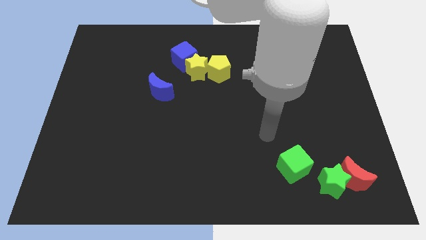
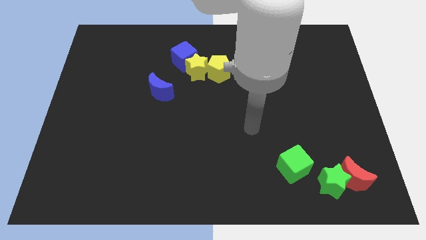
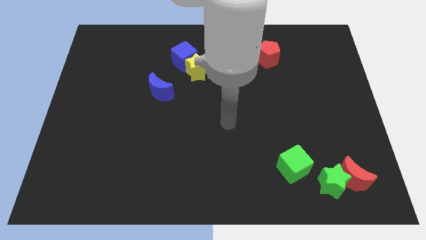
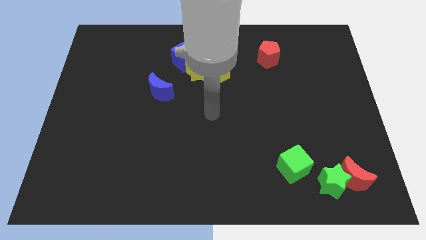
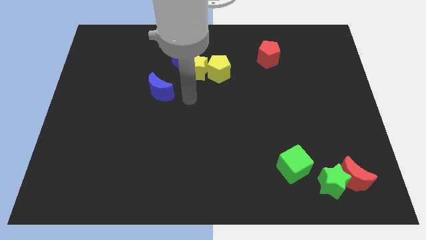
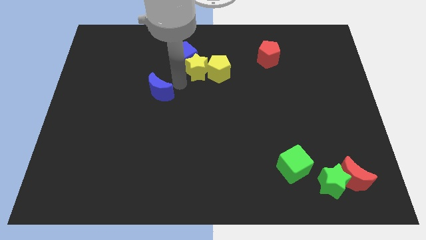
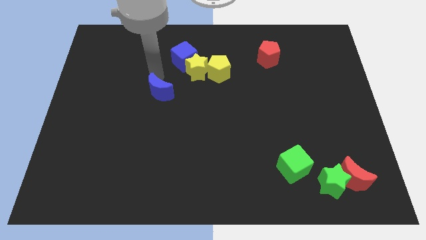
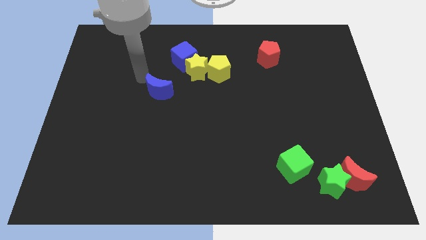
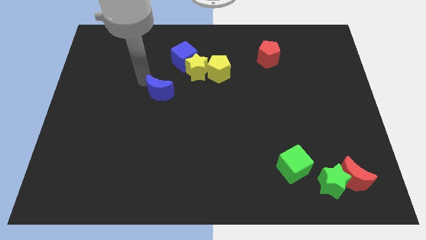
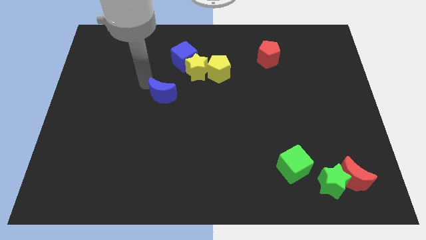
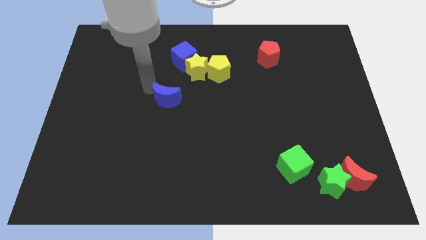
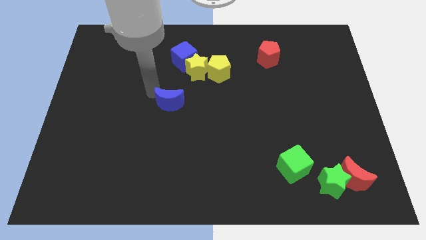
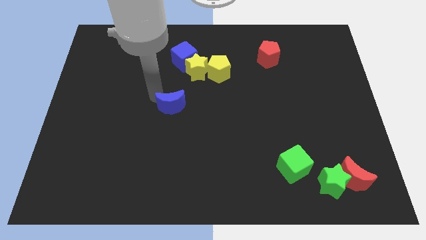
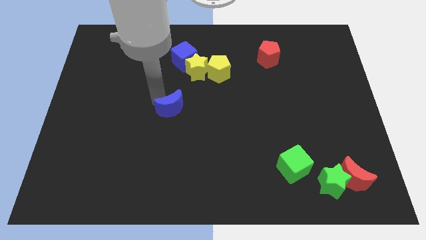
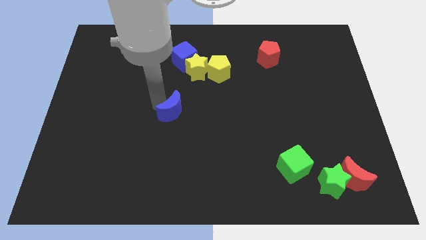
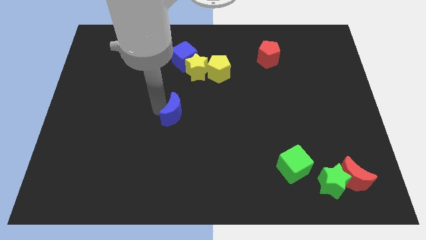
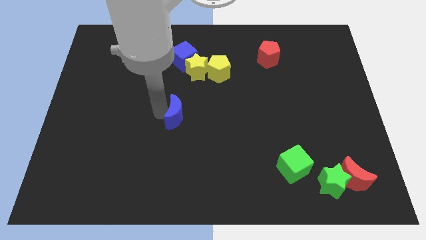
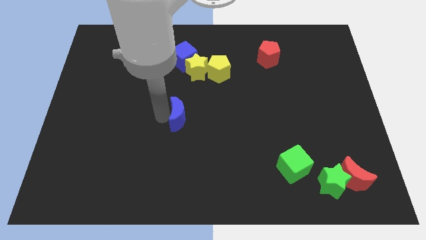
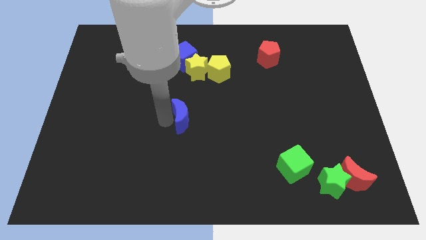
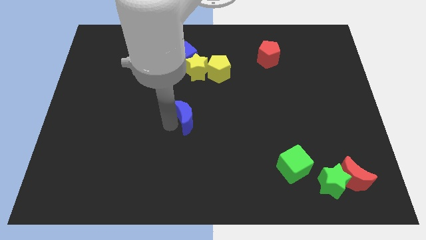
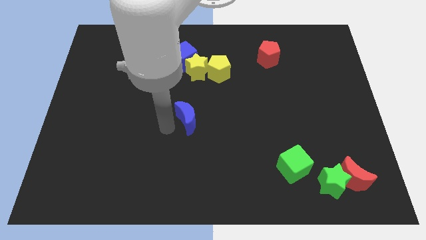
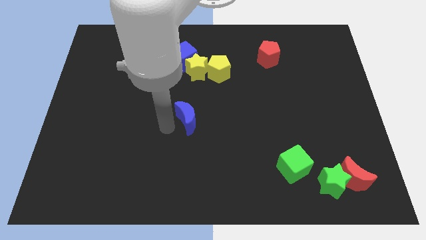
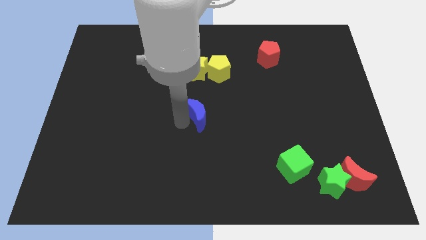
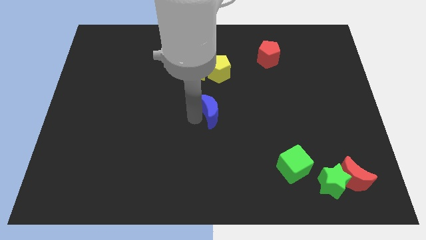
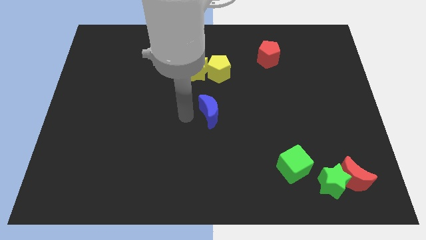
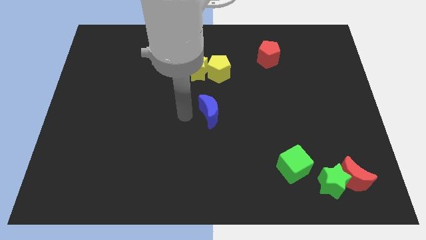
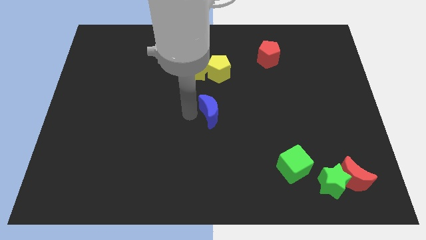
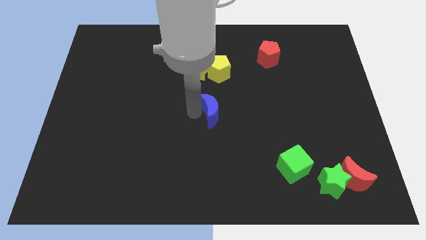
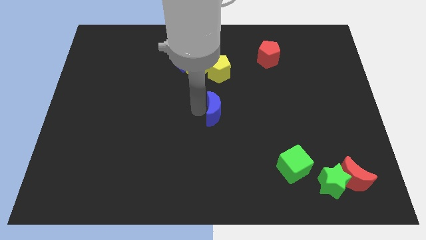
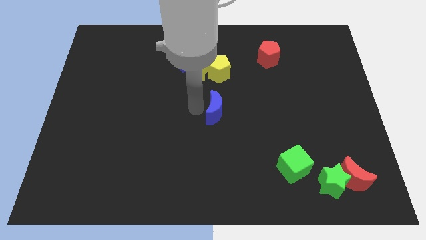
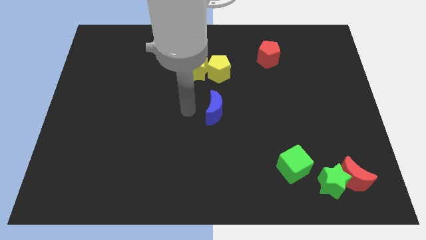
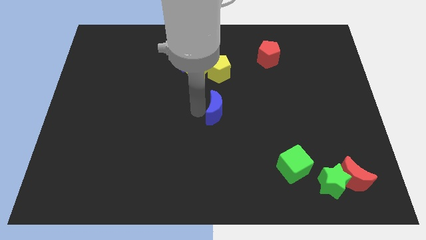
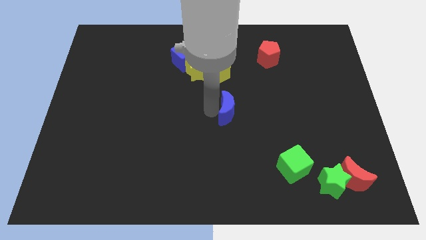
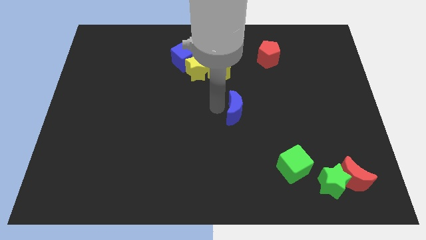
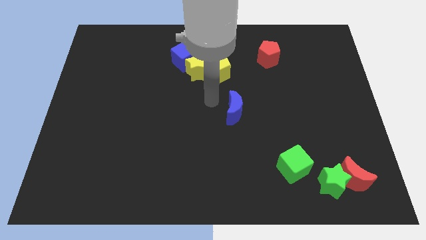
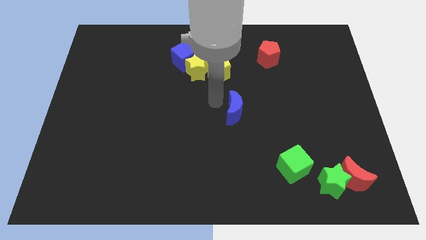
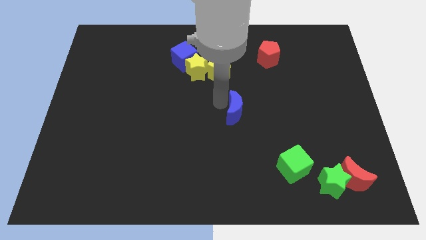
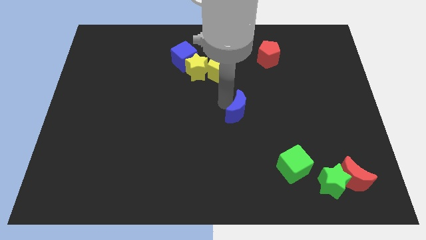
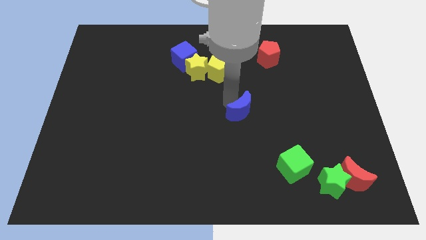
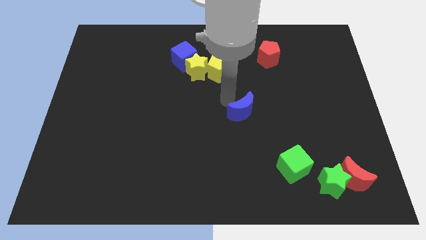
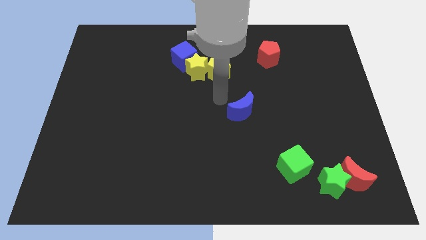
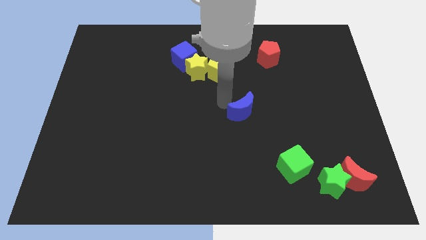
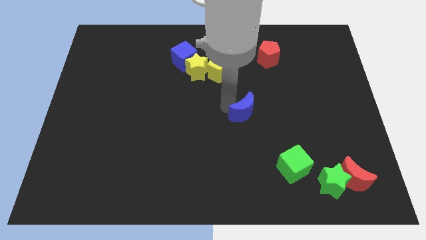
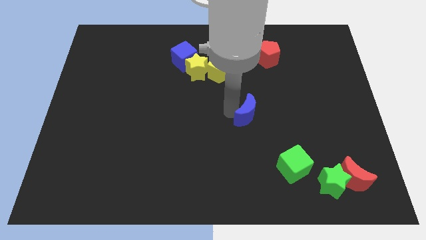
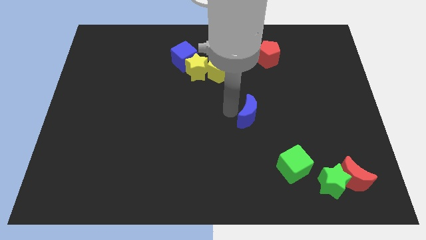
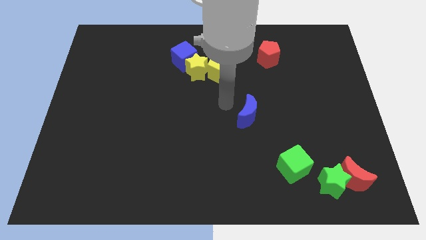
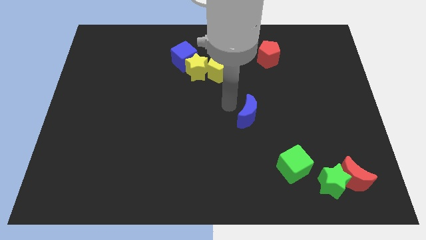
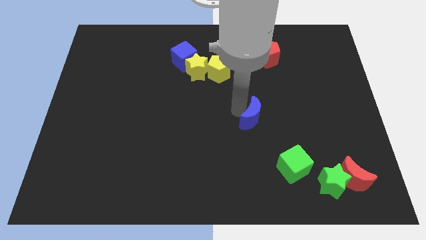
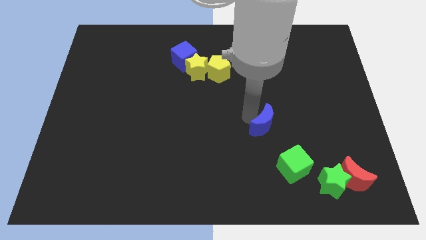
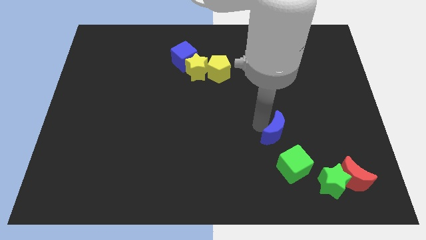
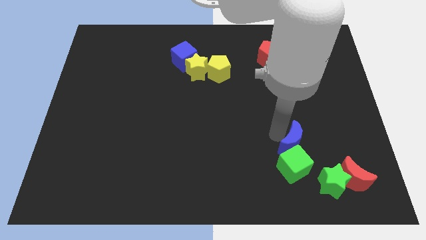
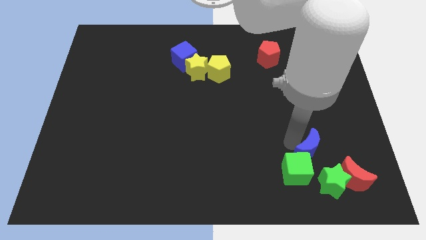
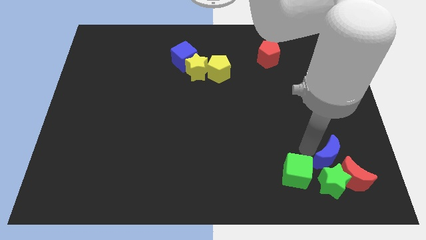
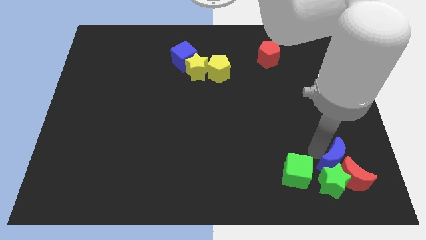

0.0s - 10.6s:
push the blue moon towards the red moon

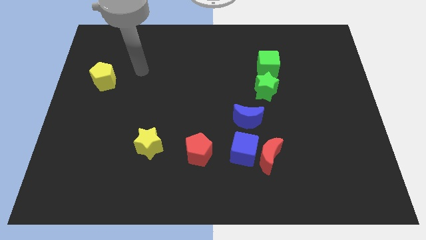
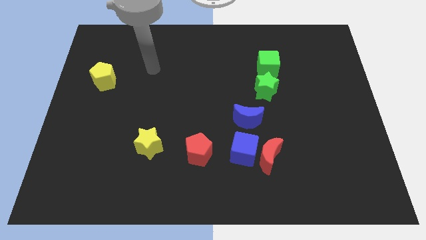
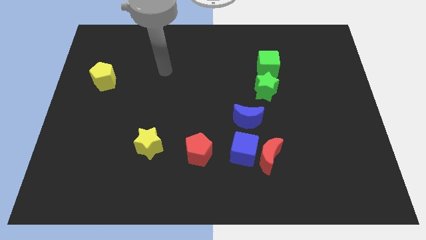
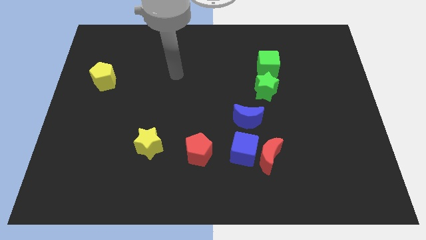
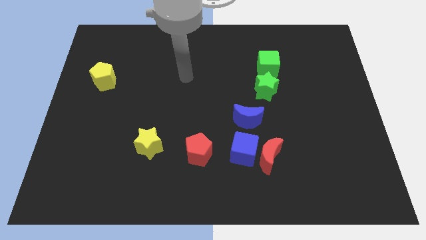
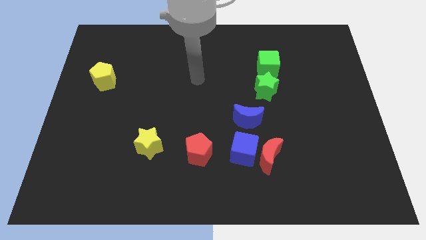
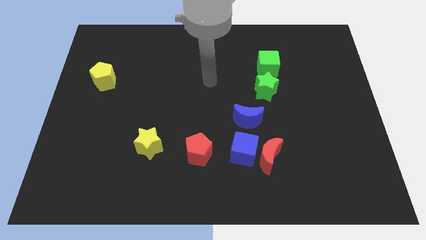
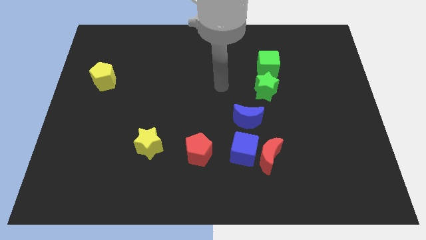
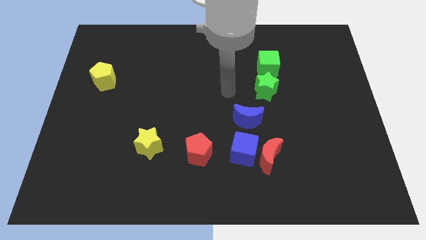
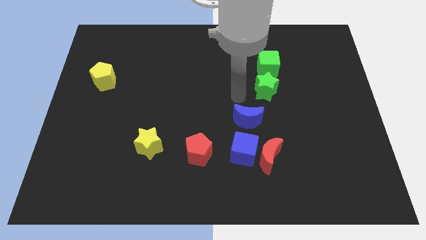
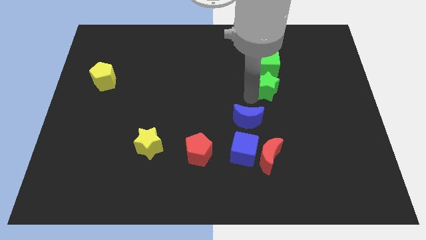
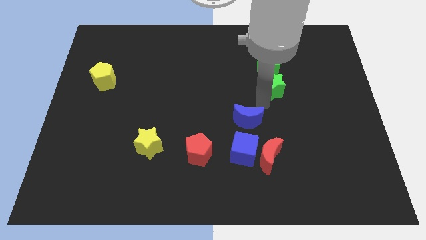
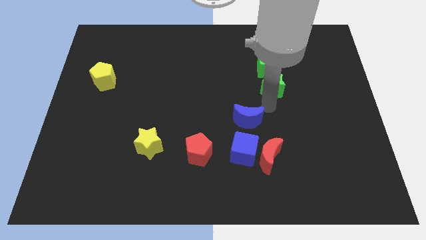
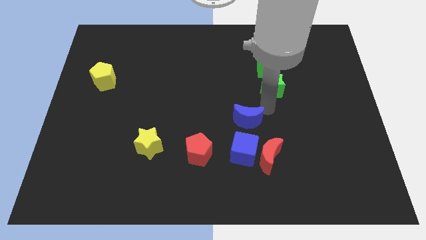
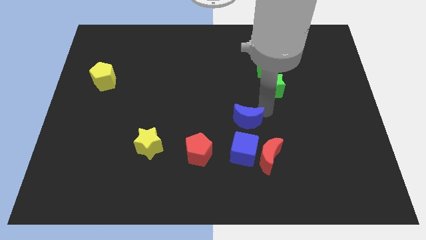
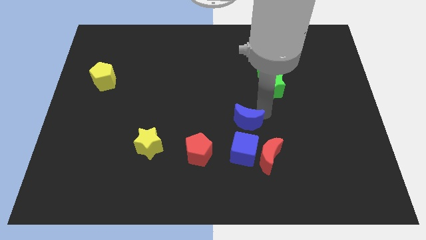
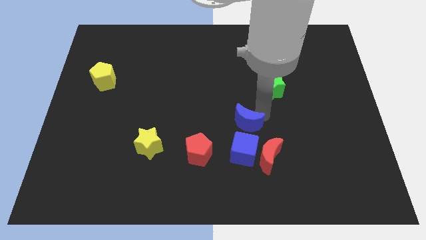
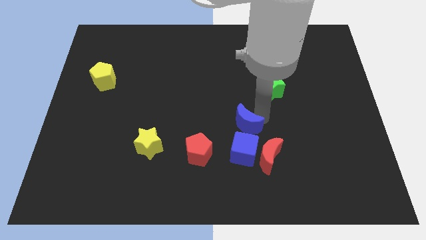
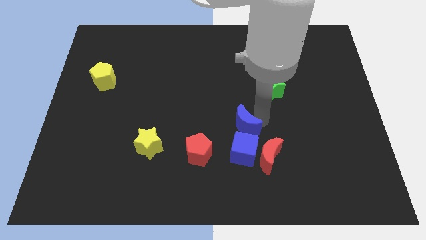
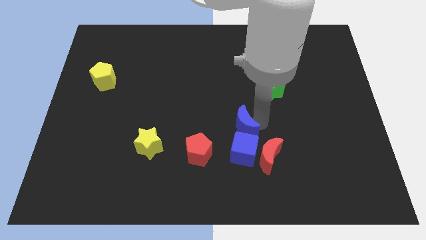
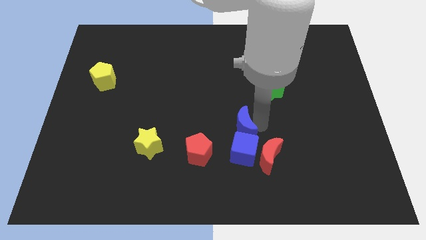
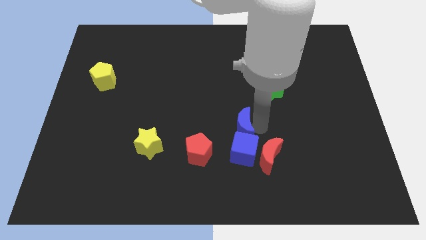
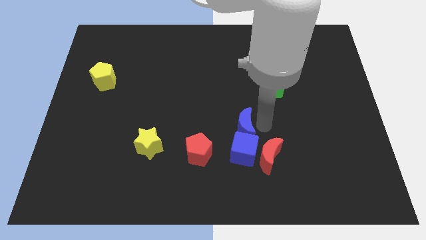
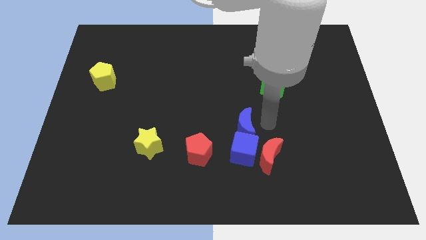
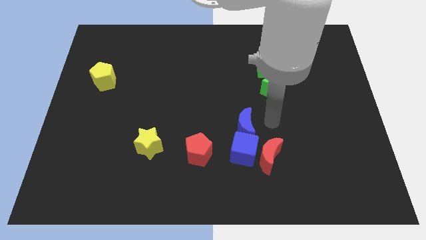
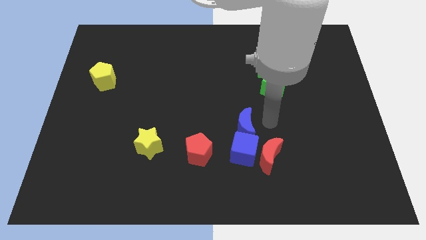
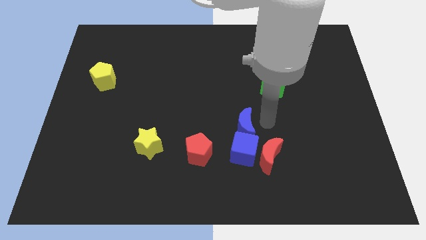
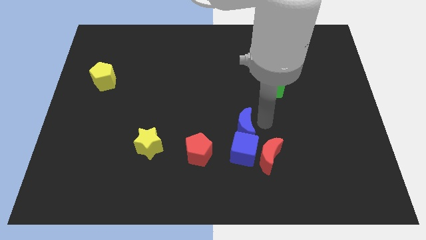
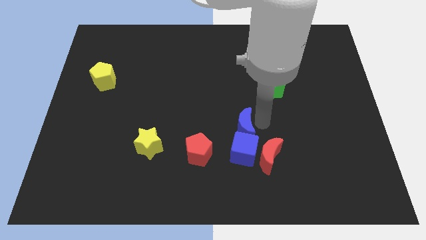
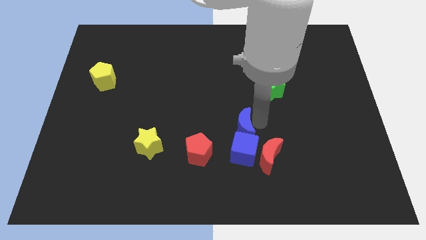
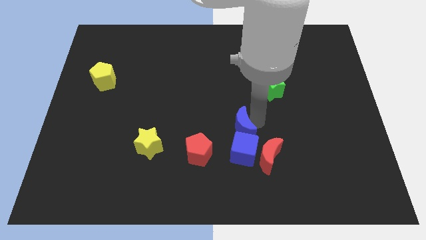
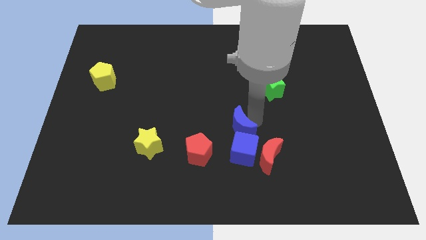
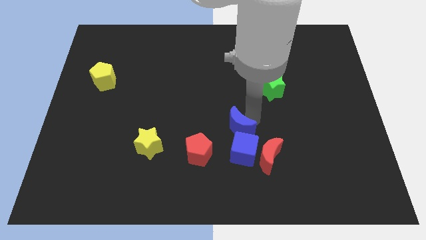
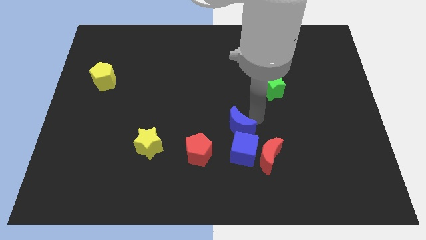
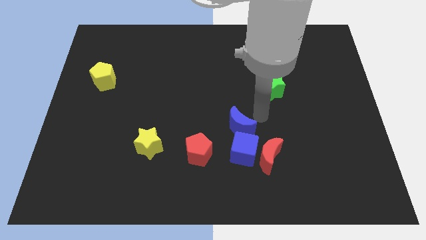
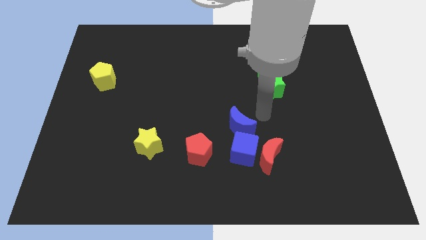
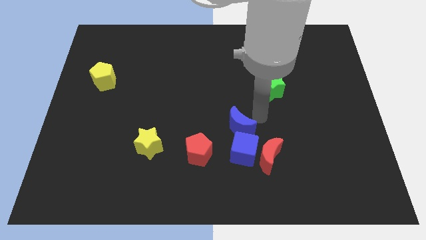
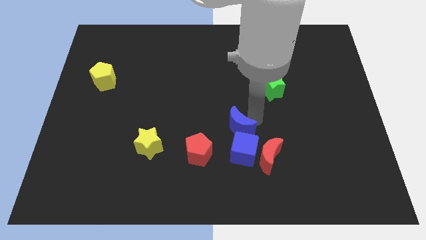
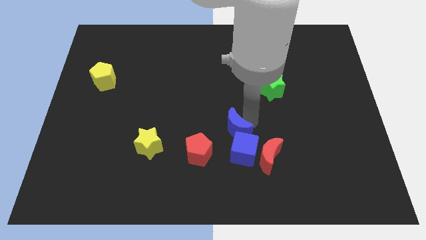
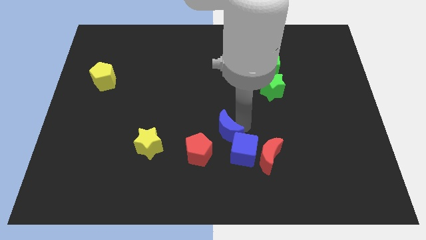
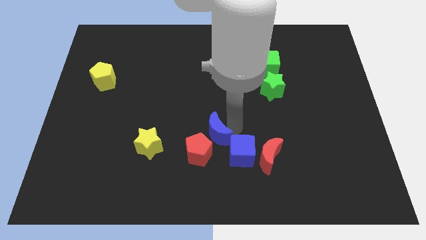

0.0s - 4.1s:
put the blue moon close to the red pentagon
